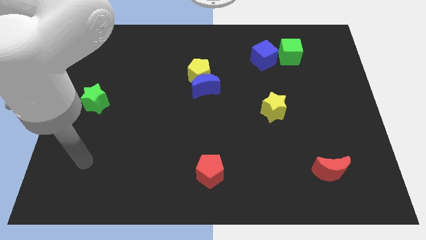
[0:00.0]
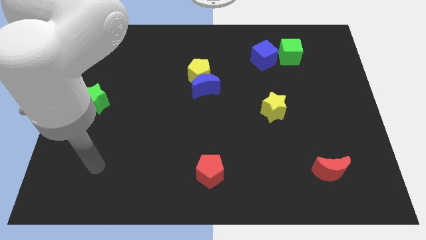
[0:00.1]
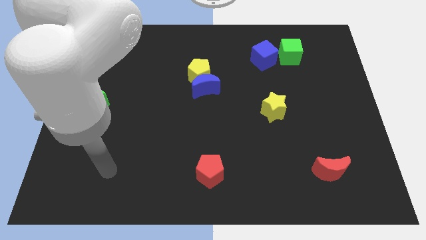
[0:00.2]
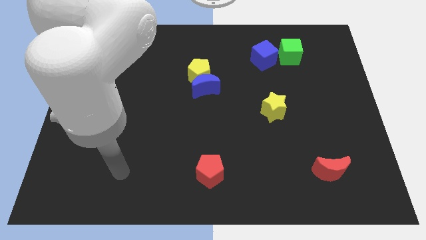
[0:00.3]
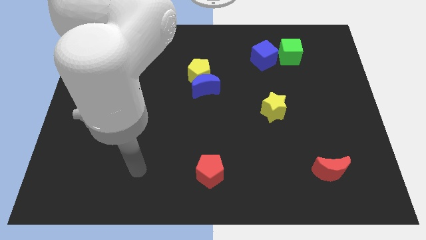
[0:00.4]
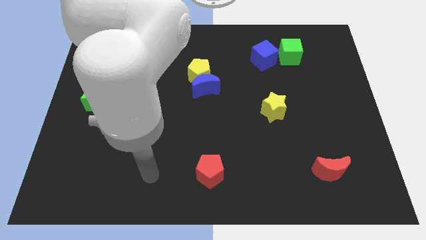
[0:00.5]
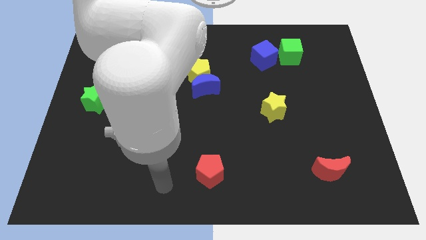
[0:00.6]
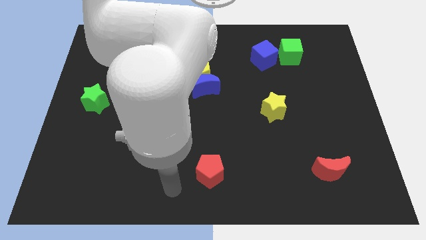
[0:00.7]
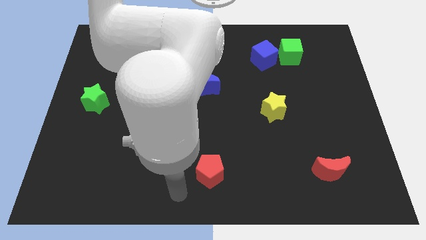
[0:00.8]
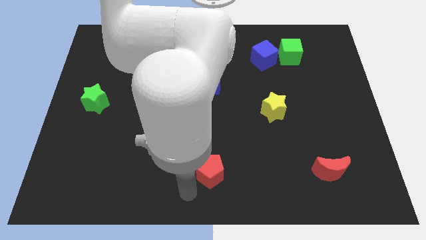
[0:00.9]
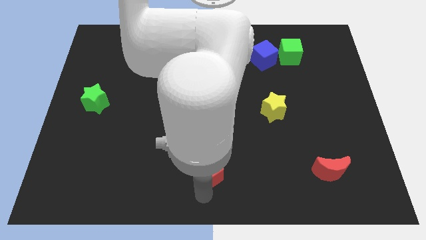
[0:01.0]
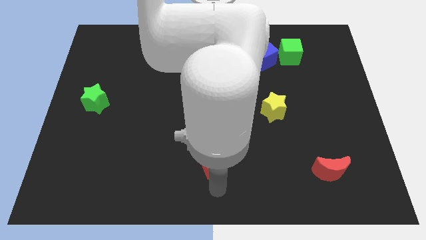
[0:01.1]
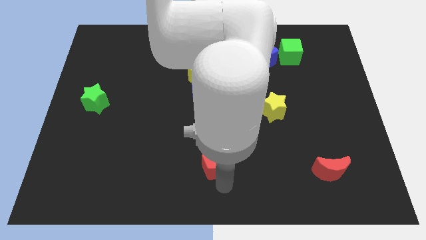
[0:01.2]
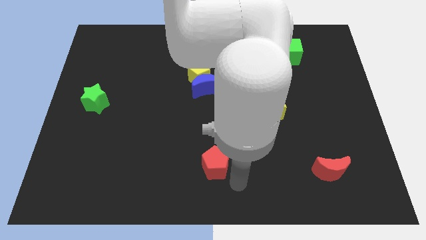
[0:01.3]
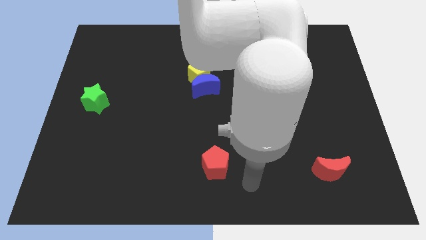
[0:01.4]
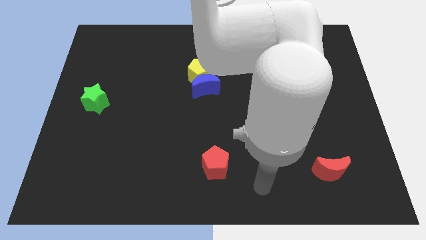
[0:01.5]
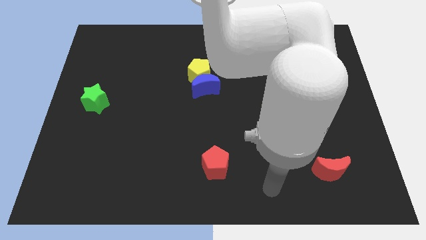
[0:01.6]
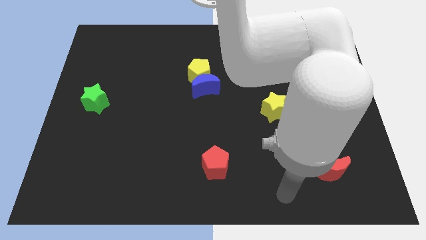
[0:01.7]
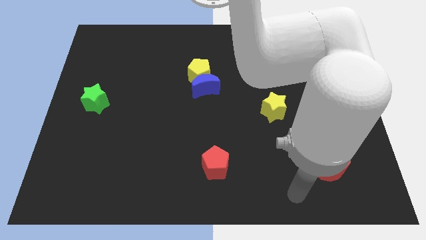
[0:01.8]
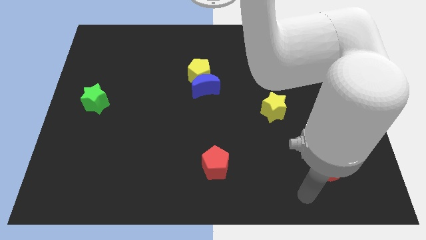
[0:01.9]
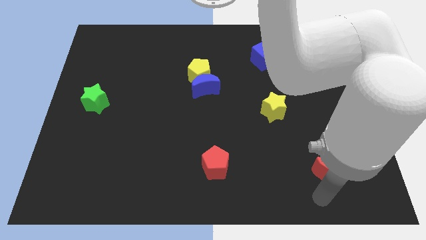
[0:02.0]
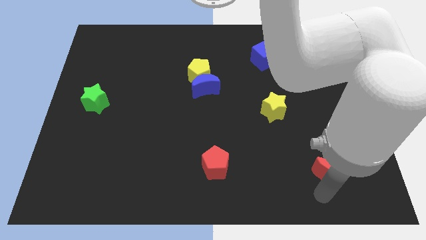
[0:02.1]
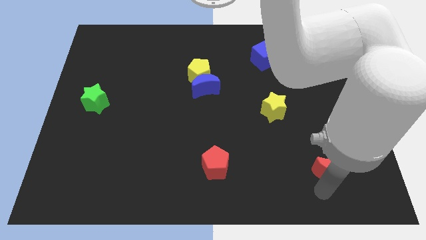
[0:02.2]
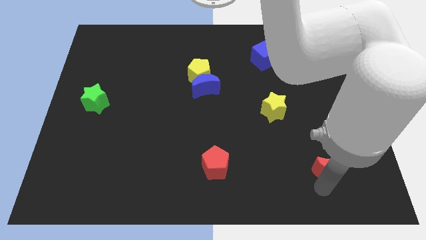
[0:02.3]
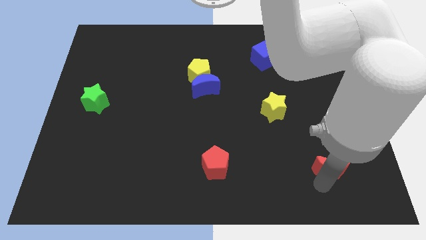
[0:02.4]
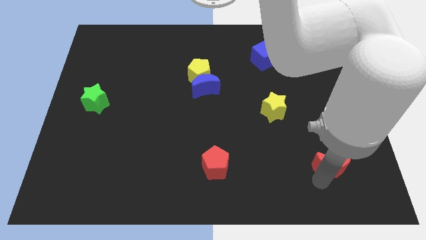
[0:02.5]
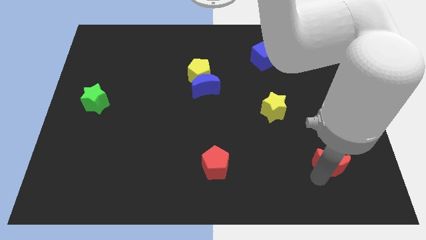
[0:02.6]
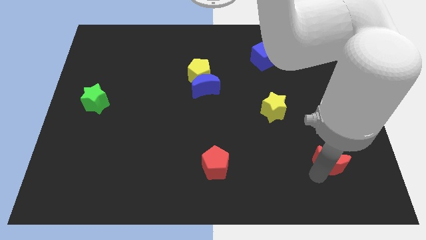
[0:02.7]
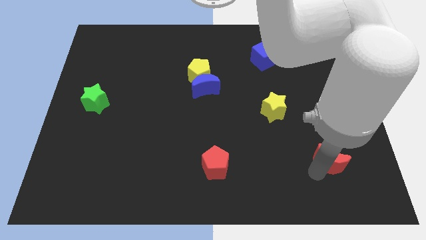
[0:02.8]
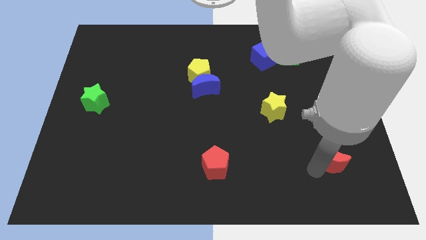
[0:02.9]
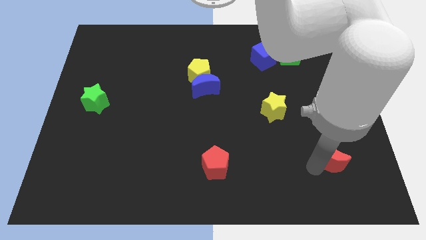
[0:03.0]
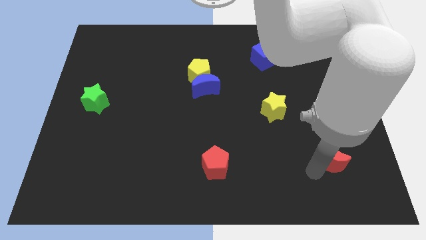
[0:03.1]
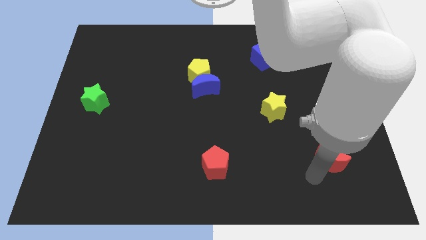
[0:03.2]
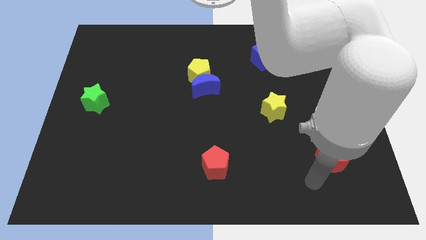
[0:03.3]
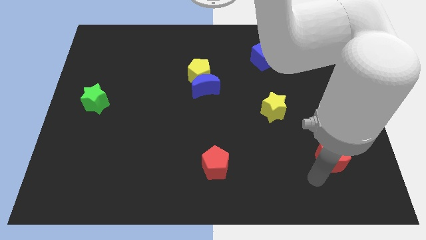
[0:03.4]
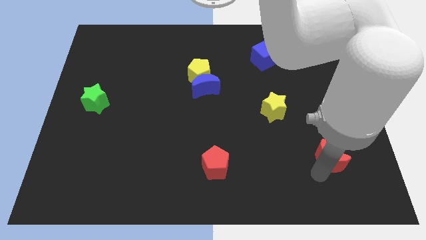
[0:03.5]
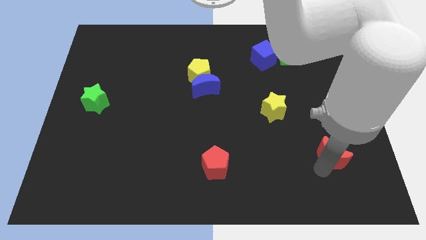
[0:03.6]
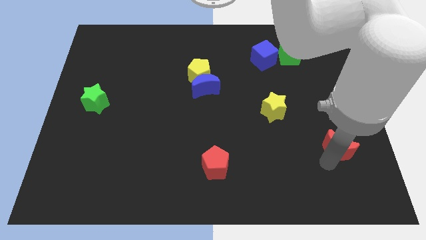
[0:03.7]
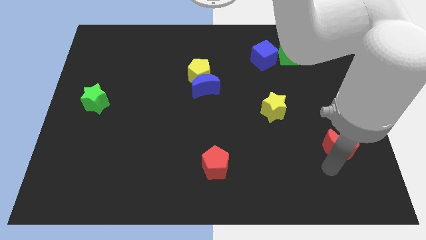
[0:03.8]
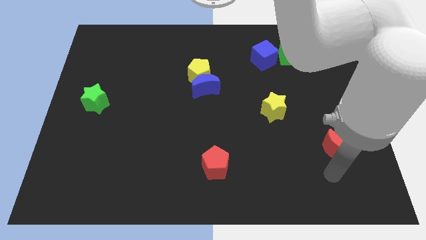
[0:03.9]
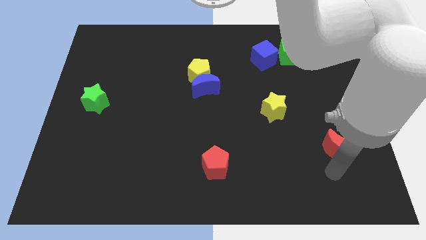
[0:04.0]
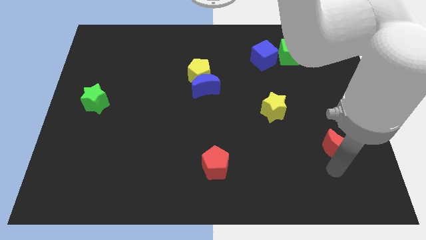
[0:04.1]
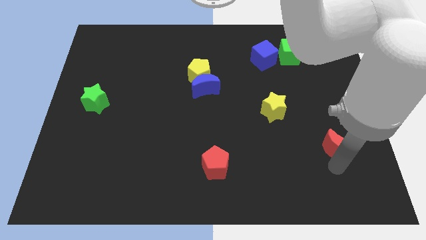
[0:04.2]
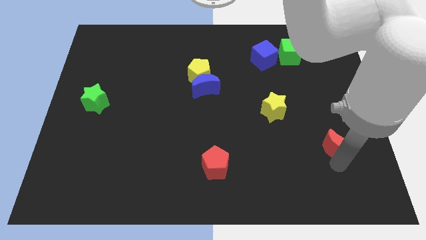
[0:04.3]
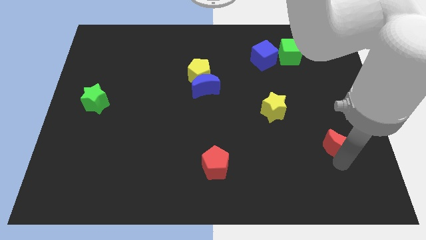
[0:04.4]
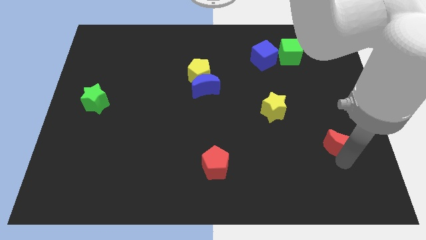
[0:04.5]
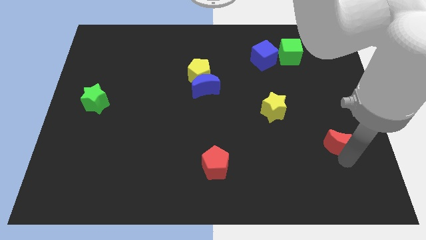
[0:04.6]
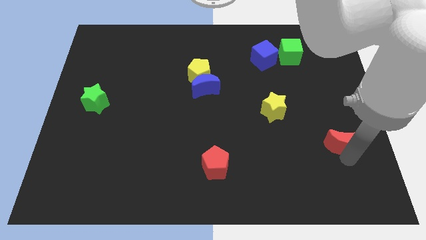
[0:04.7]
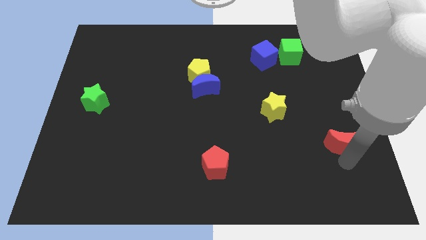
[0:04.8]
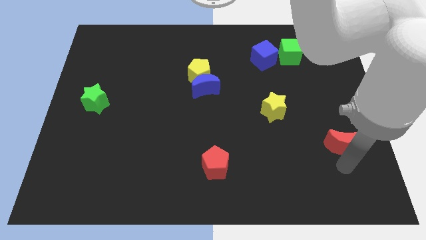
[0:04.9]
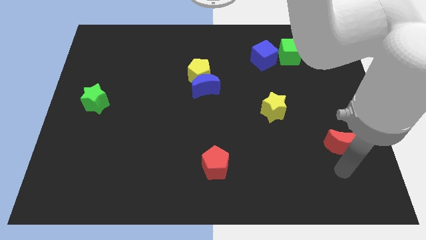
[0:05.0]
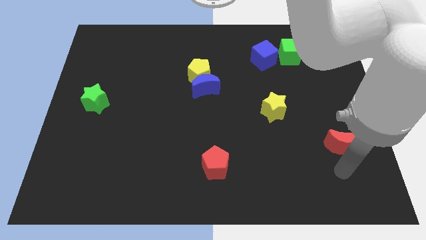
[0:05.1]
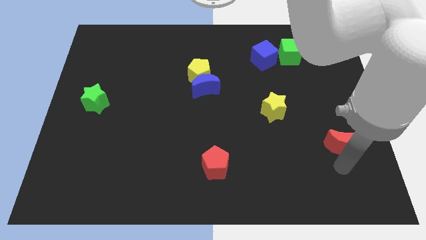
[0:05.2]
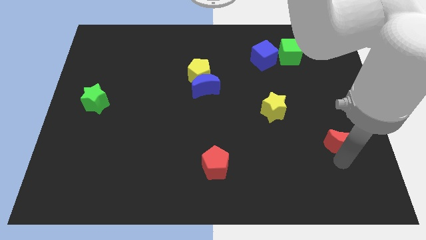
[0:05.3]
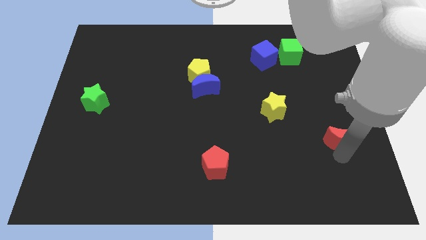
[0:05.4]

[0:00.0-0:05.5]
push the red moon upwards a little

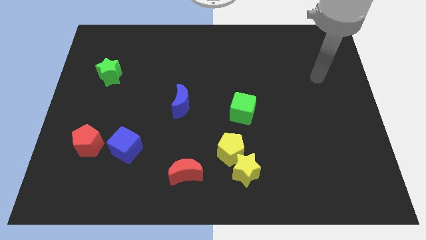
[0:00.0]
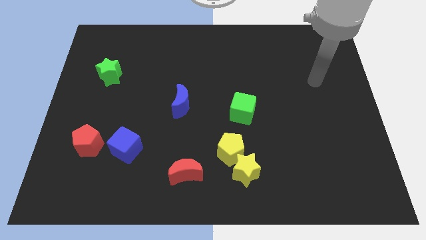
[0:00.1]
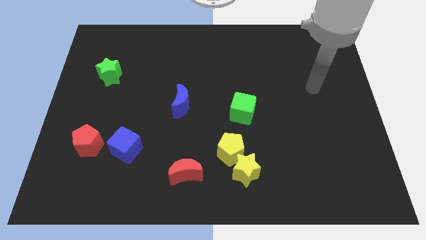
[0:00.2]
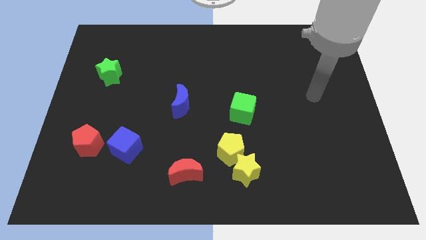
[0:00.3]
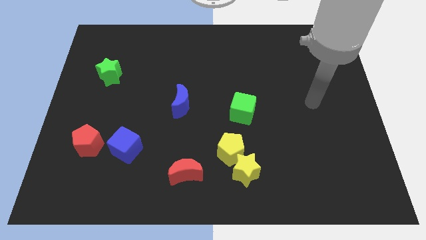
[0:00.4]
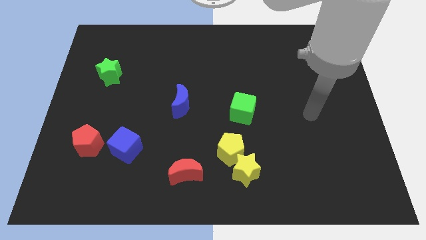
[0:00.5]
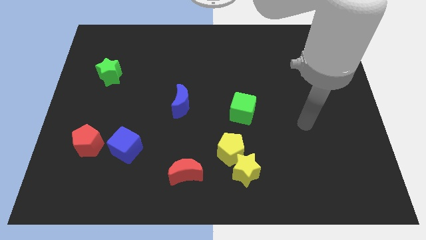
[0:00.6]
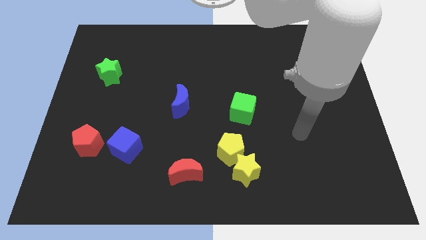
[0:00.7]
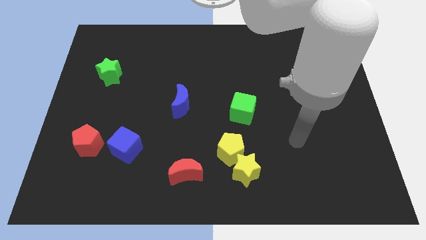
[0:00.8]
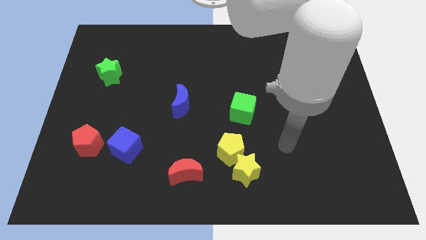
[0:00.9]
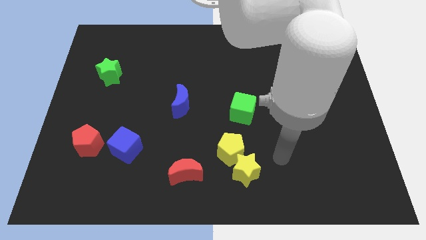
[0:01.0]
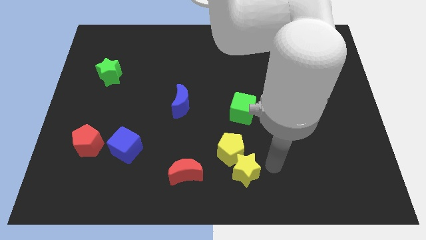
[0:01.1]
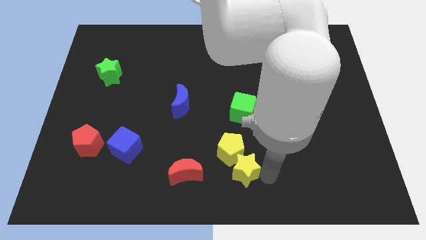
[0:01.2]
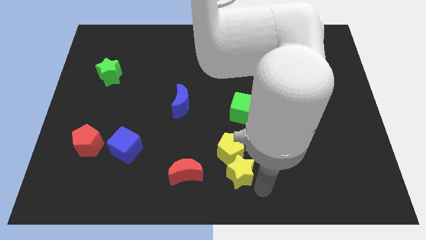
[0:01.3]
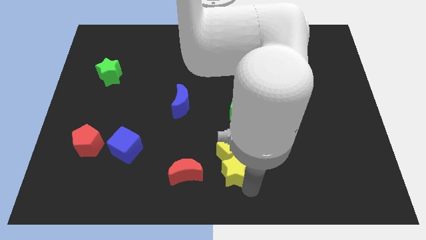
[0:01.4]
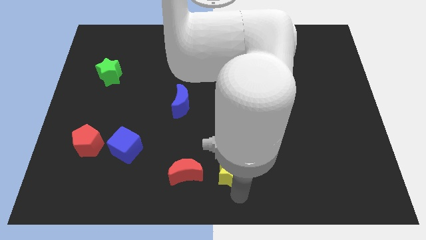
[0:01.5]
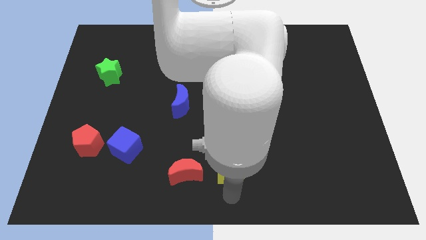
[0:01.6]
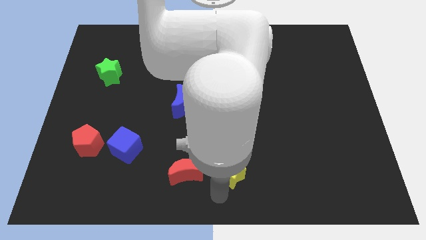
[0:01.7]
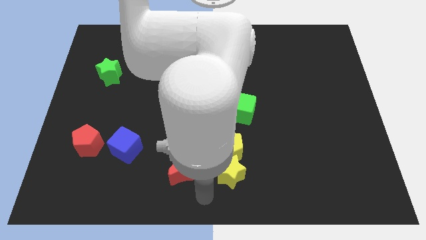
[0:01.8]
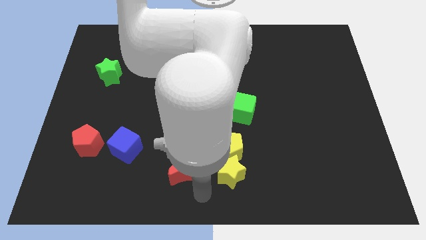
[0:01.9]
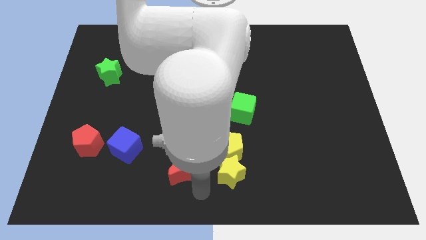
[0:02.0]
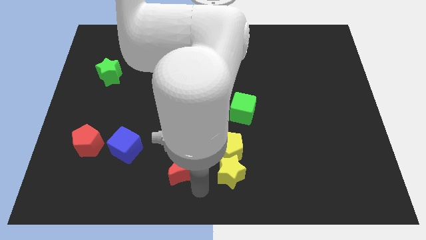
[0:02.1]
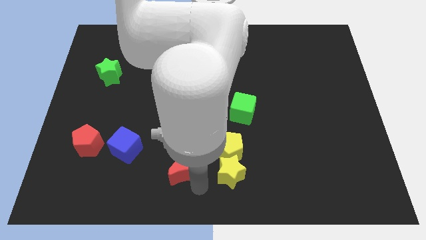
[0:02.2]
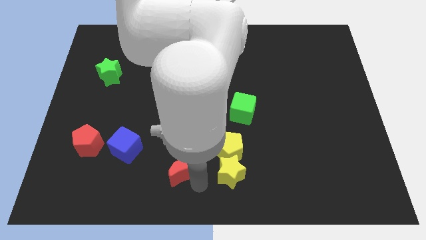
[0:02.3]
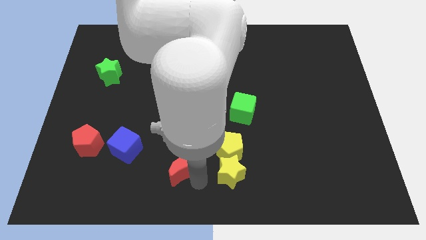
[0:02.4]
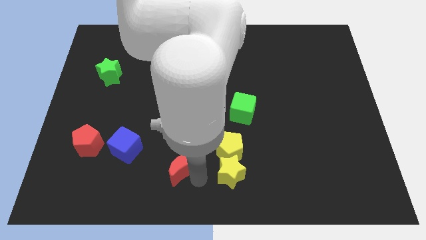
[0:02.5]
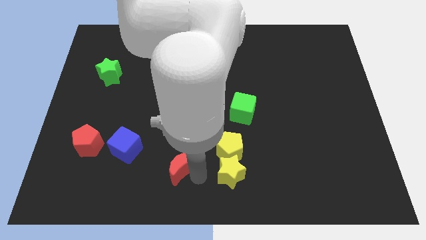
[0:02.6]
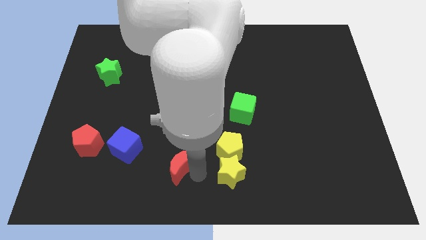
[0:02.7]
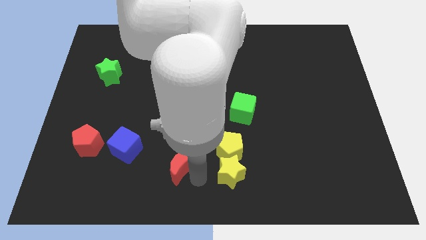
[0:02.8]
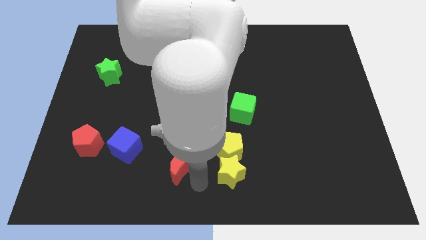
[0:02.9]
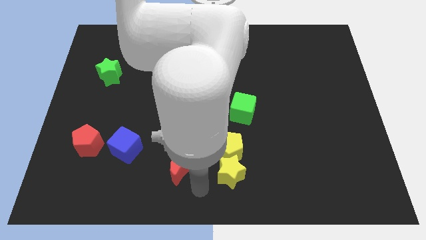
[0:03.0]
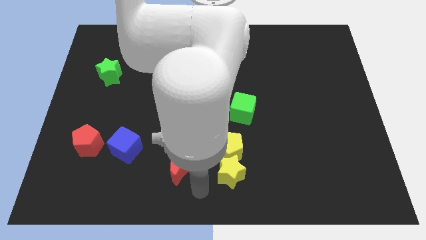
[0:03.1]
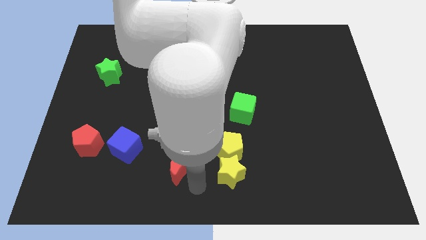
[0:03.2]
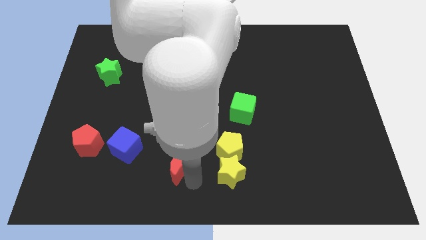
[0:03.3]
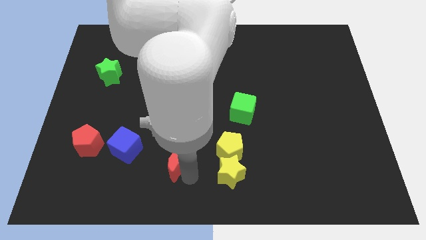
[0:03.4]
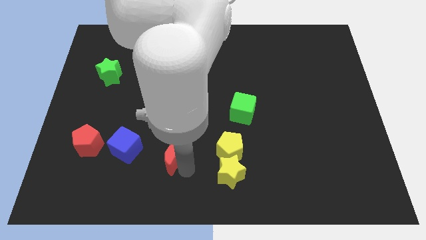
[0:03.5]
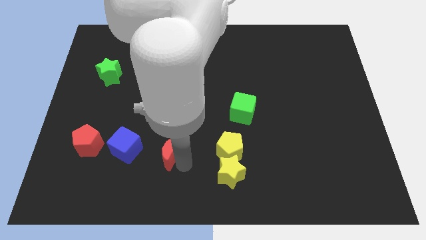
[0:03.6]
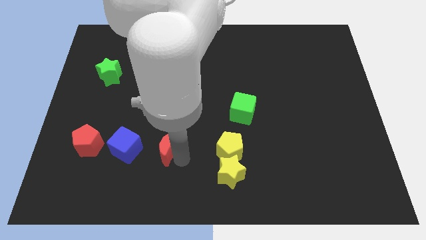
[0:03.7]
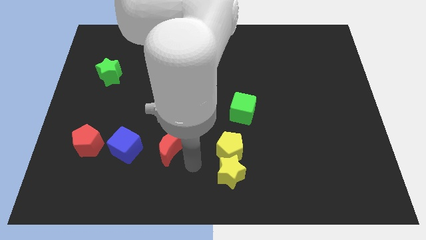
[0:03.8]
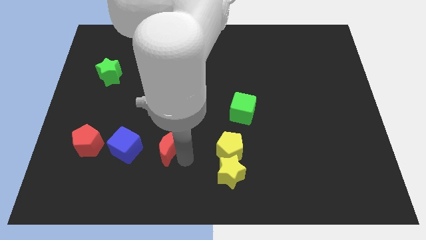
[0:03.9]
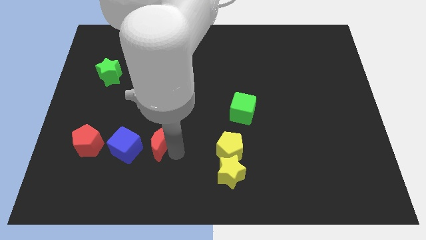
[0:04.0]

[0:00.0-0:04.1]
slightly push the red moon up and left
